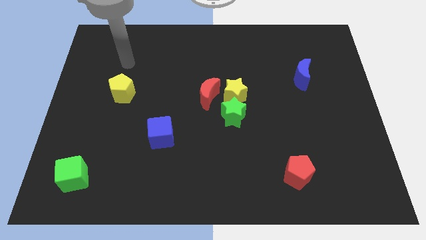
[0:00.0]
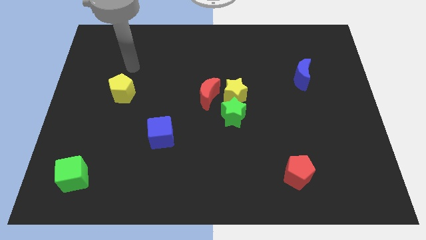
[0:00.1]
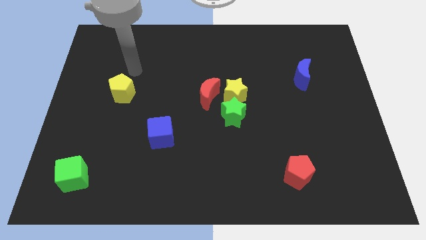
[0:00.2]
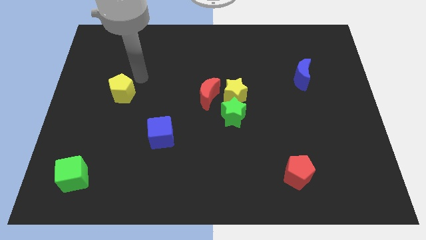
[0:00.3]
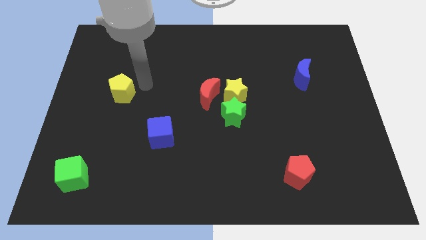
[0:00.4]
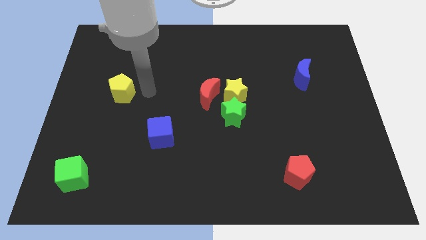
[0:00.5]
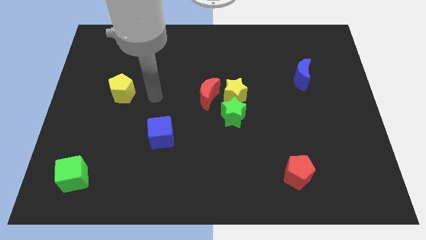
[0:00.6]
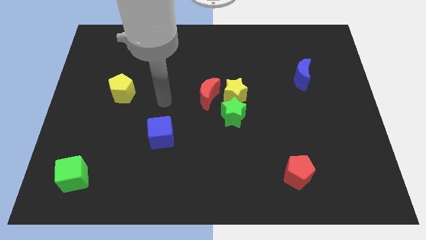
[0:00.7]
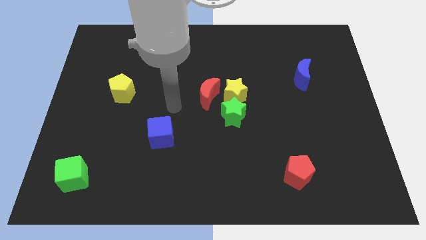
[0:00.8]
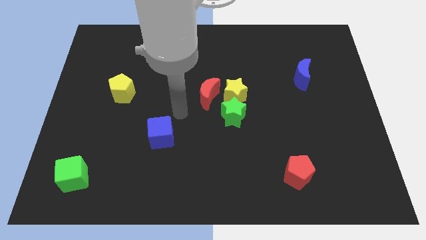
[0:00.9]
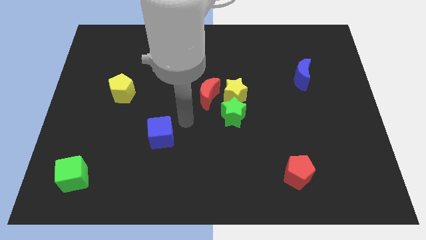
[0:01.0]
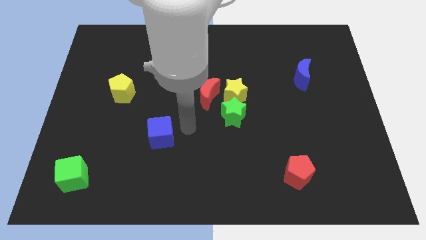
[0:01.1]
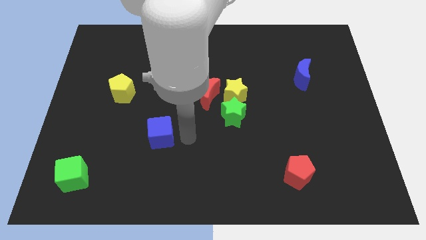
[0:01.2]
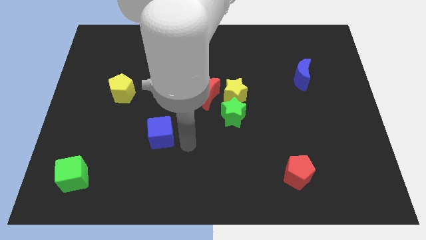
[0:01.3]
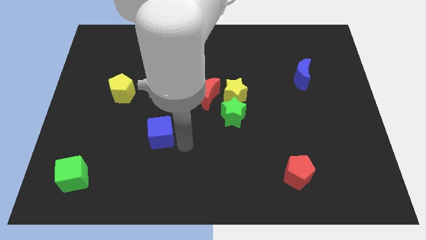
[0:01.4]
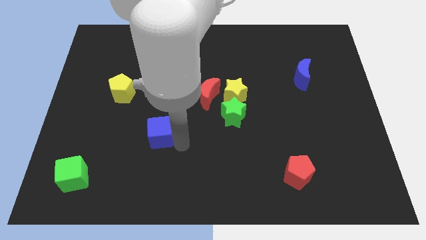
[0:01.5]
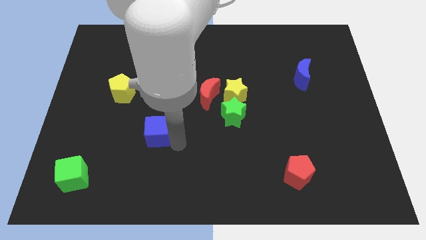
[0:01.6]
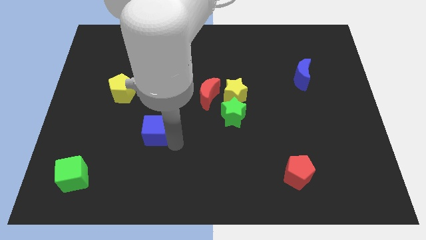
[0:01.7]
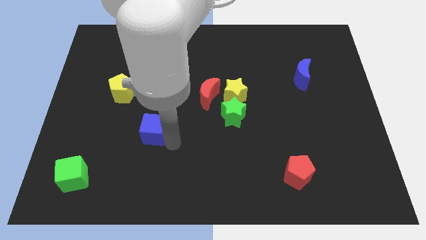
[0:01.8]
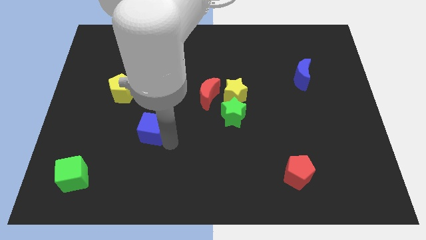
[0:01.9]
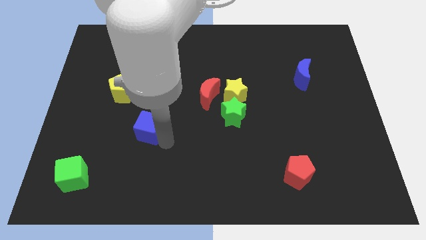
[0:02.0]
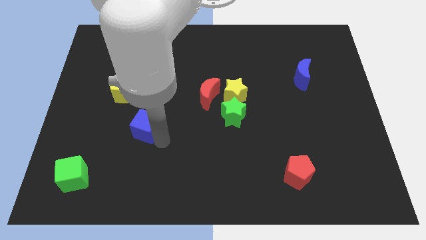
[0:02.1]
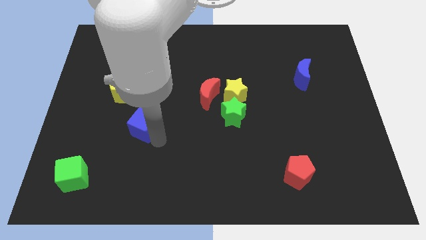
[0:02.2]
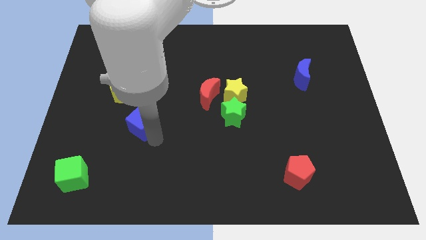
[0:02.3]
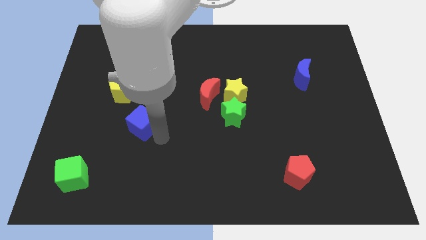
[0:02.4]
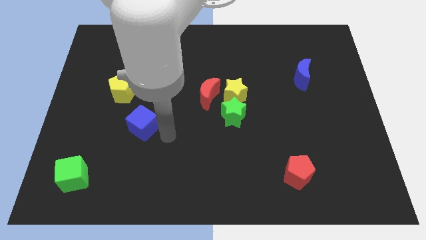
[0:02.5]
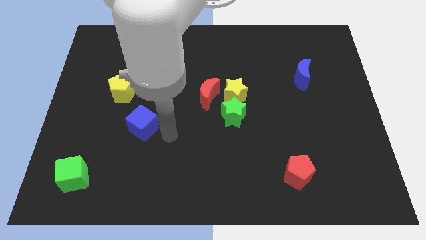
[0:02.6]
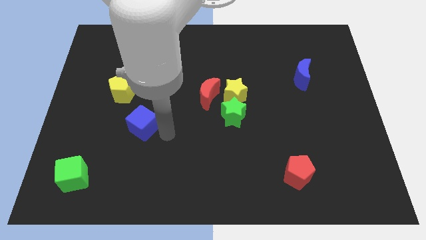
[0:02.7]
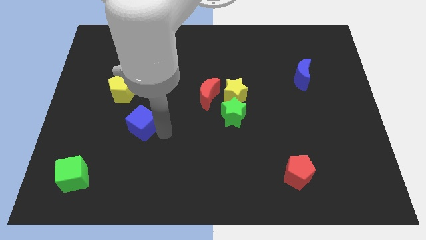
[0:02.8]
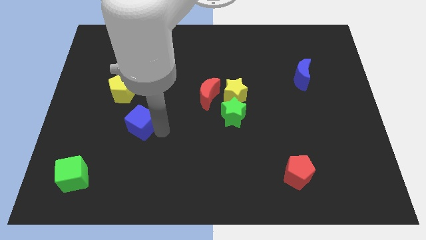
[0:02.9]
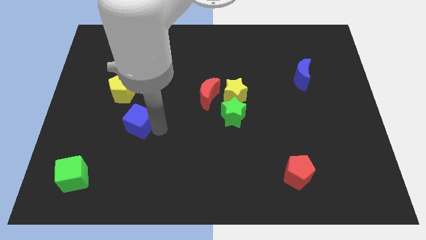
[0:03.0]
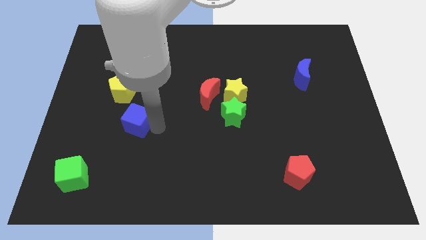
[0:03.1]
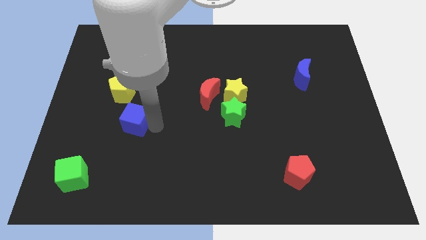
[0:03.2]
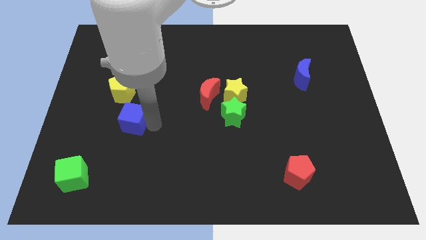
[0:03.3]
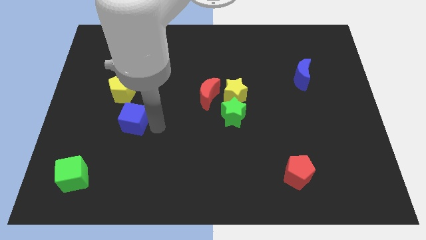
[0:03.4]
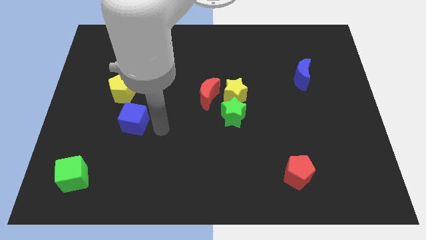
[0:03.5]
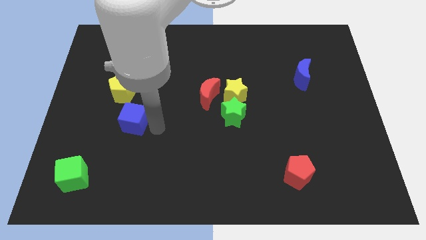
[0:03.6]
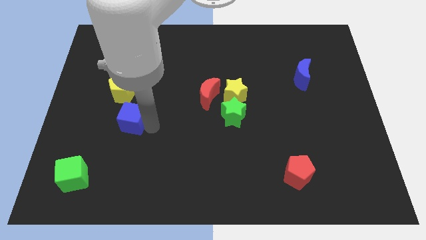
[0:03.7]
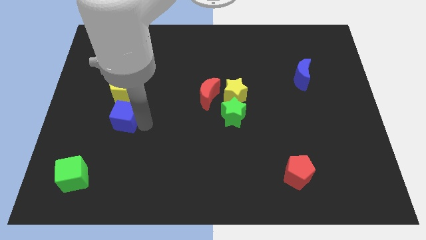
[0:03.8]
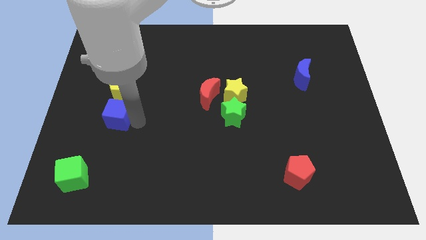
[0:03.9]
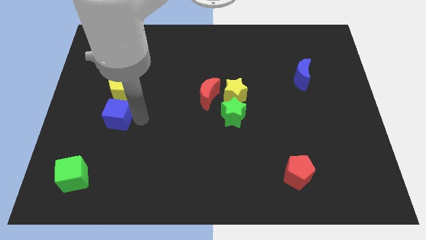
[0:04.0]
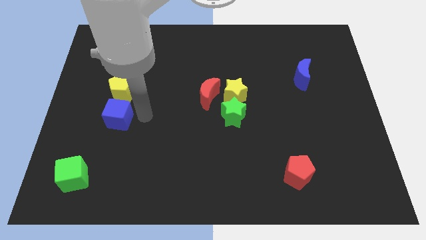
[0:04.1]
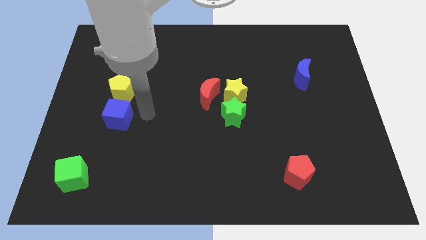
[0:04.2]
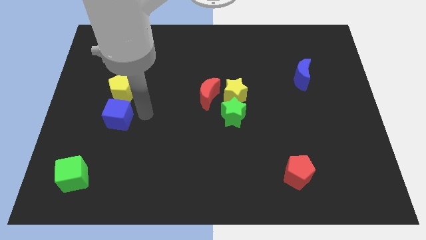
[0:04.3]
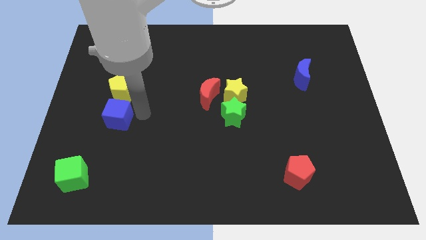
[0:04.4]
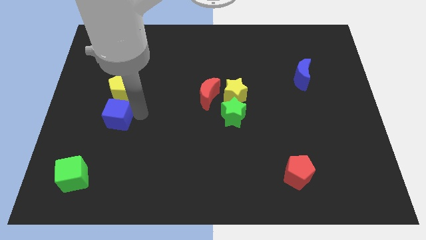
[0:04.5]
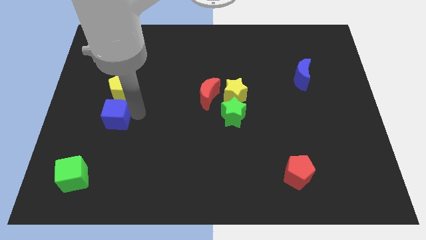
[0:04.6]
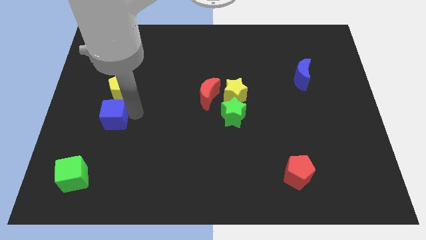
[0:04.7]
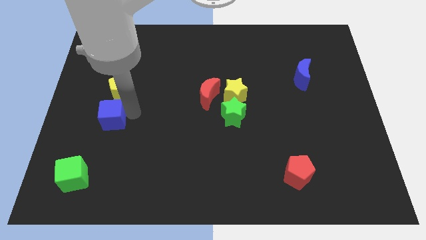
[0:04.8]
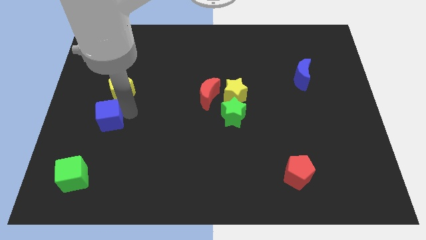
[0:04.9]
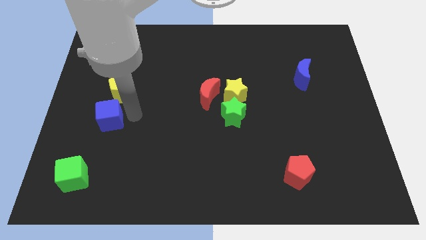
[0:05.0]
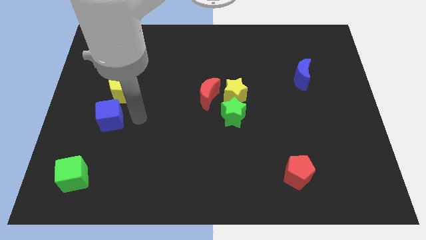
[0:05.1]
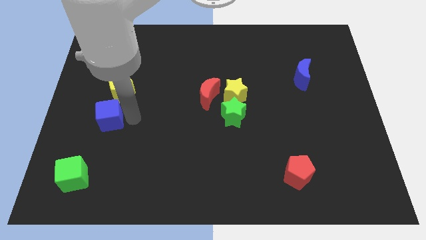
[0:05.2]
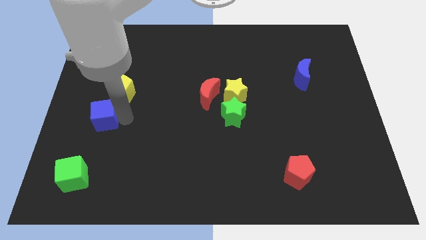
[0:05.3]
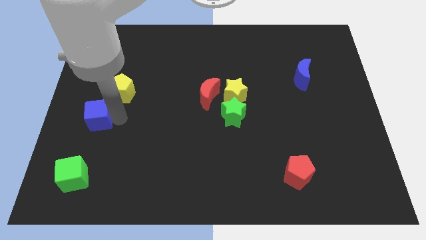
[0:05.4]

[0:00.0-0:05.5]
slide the blue cube to the center left
